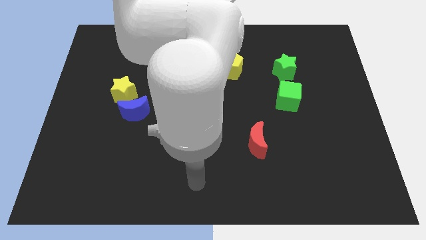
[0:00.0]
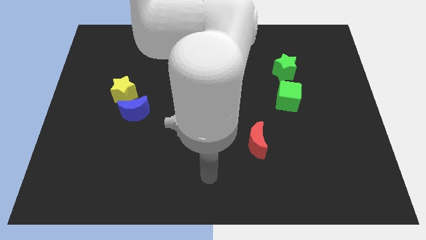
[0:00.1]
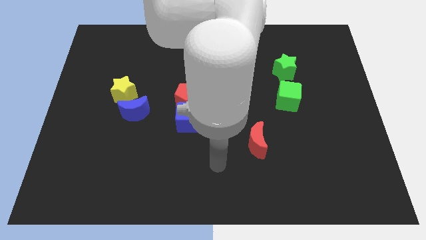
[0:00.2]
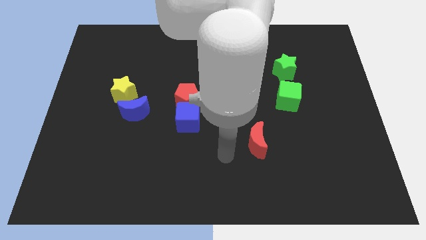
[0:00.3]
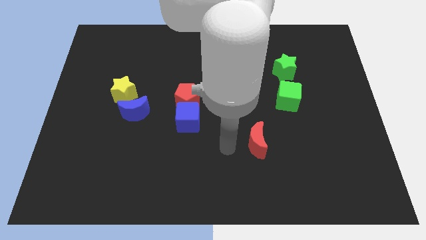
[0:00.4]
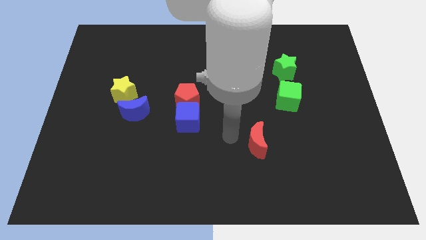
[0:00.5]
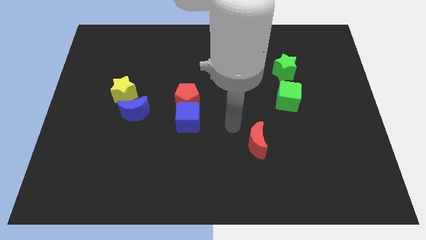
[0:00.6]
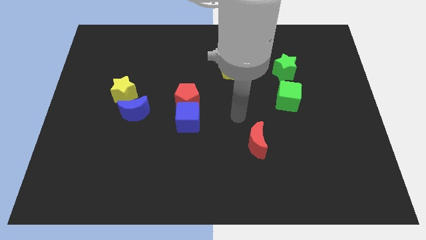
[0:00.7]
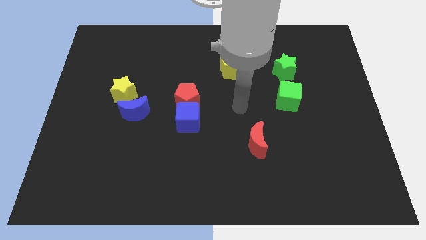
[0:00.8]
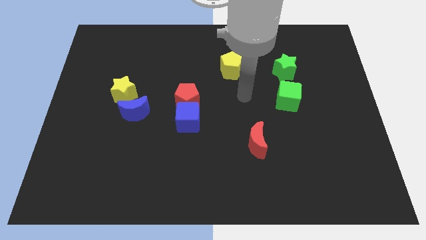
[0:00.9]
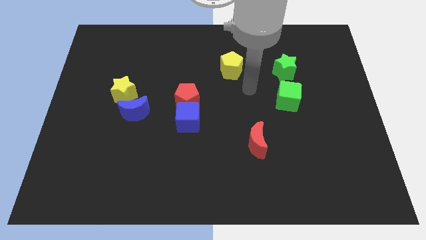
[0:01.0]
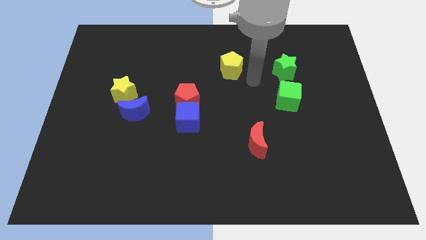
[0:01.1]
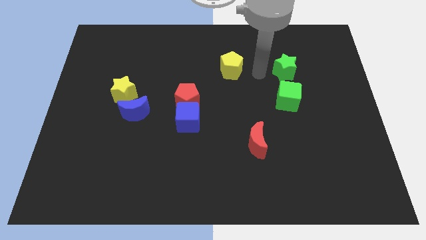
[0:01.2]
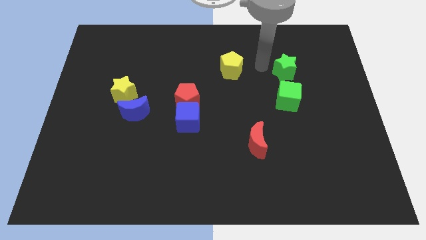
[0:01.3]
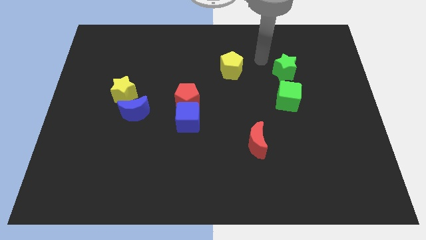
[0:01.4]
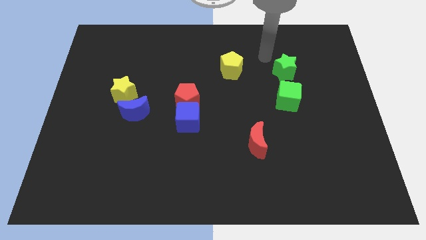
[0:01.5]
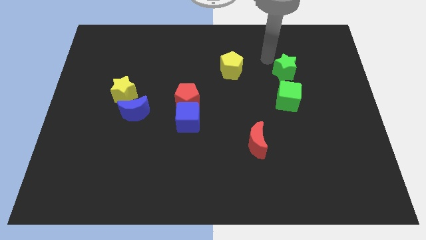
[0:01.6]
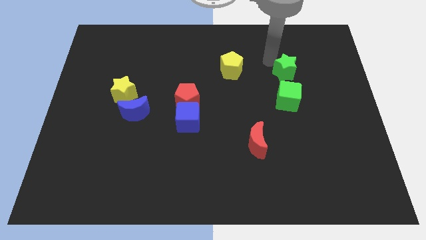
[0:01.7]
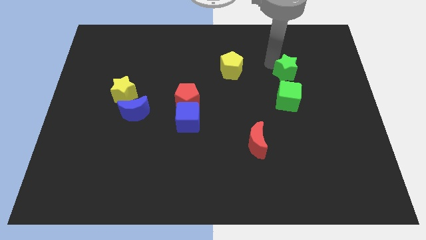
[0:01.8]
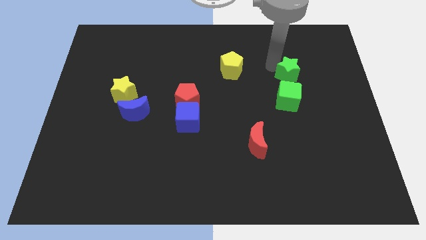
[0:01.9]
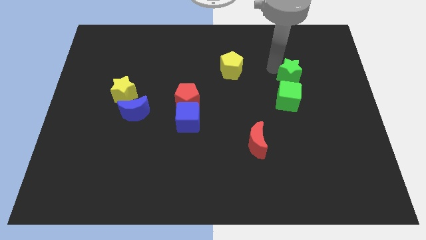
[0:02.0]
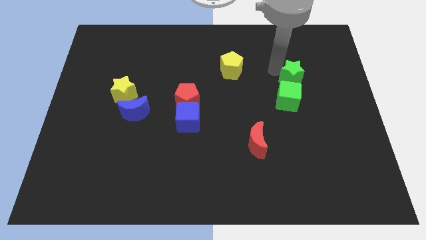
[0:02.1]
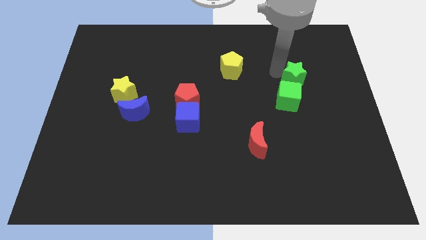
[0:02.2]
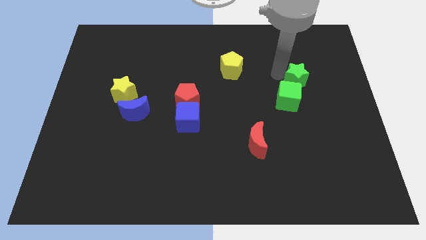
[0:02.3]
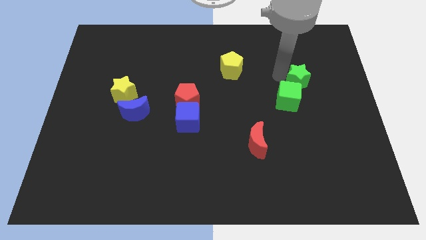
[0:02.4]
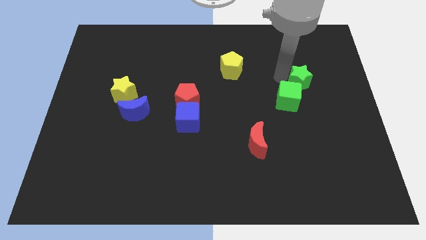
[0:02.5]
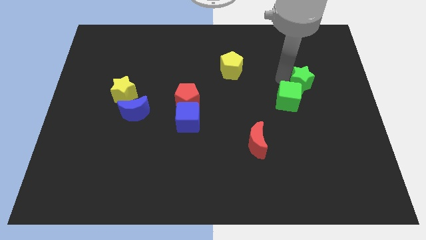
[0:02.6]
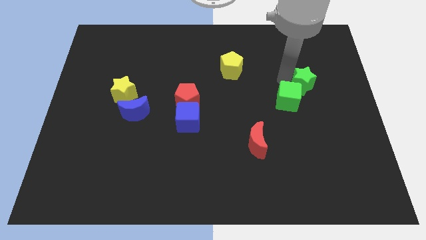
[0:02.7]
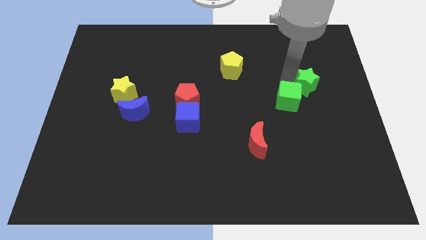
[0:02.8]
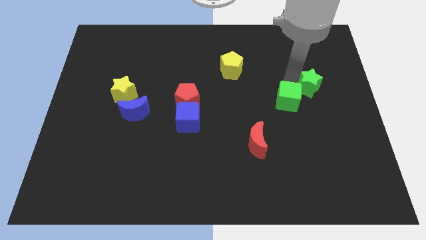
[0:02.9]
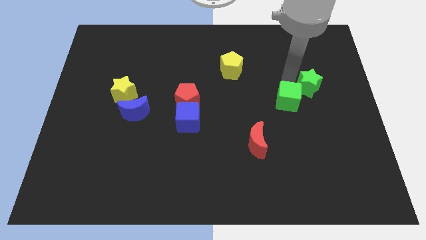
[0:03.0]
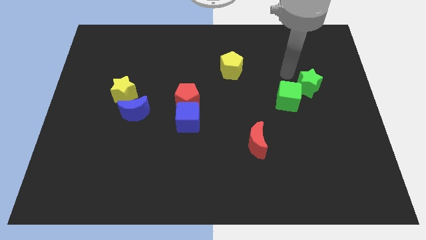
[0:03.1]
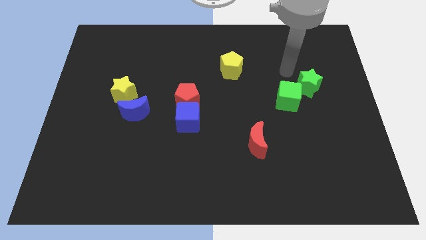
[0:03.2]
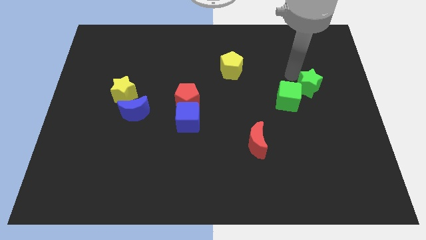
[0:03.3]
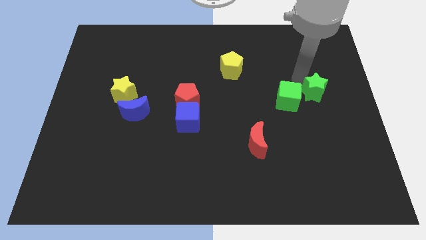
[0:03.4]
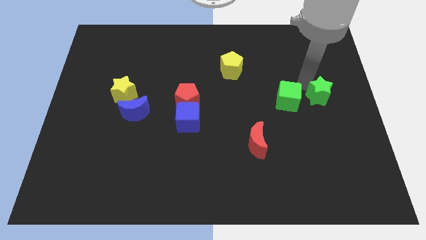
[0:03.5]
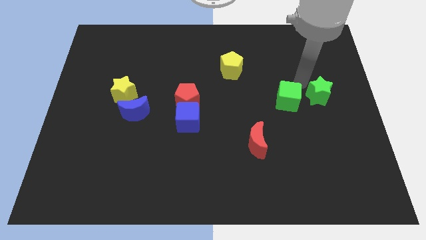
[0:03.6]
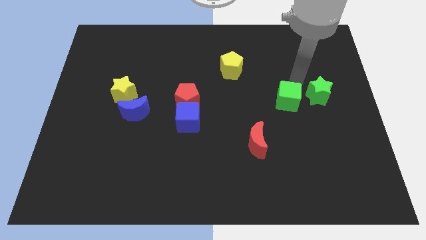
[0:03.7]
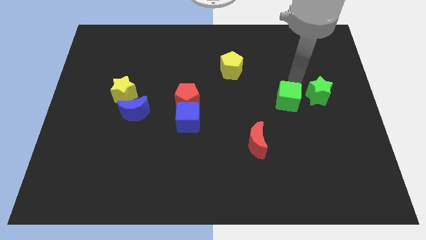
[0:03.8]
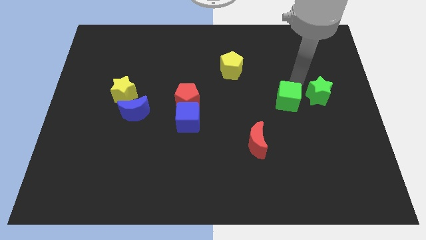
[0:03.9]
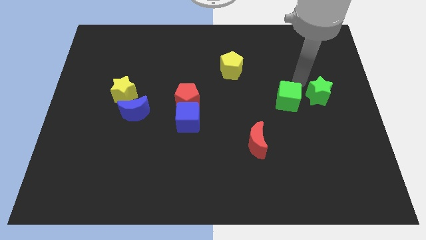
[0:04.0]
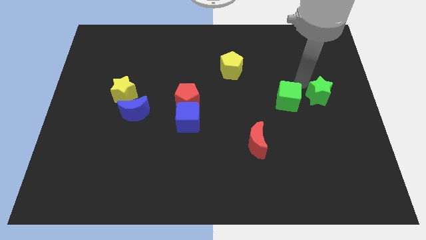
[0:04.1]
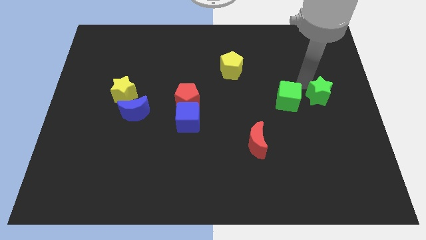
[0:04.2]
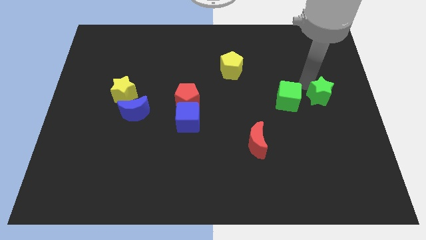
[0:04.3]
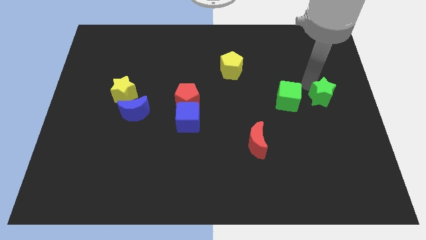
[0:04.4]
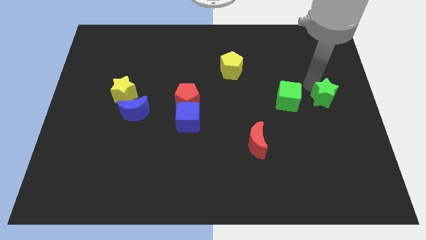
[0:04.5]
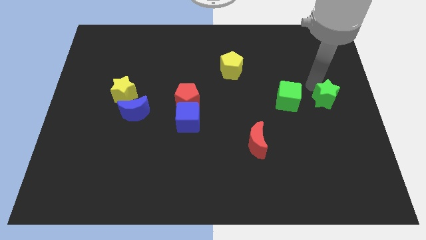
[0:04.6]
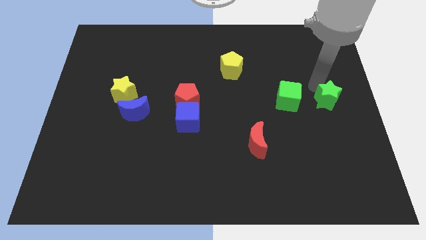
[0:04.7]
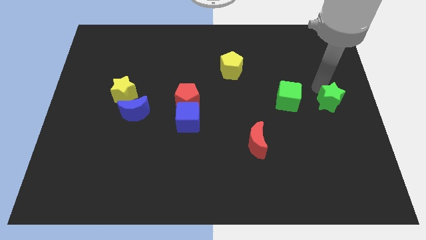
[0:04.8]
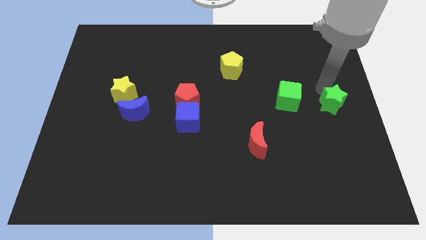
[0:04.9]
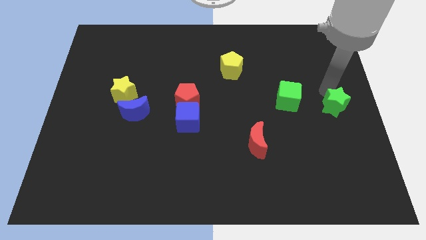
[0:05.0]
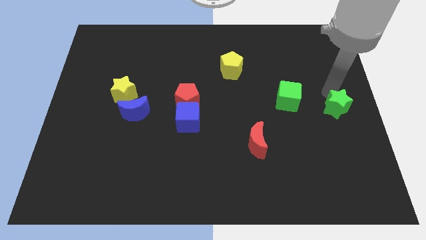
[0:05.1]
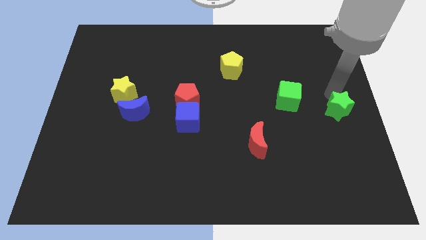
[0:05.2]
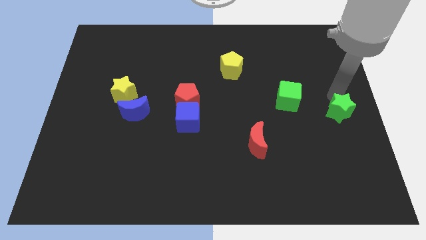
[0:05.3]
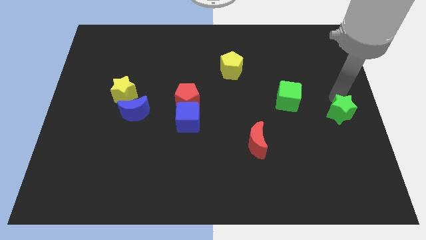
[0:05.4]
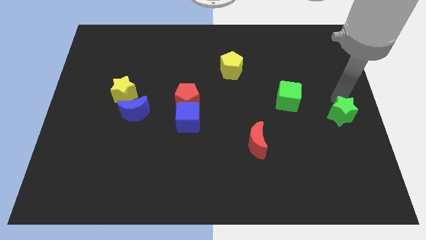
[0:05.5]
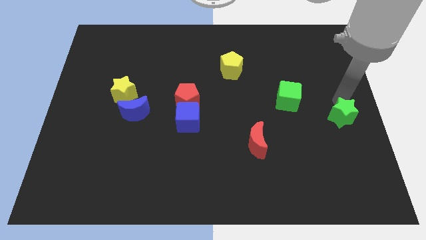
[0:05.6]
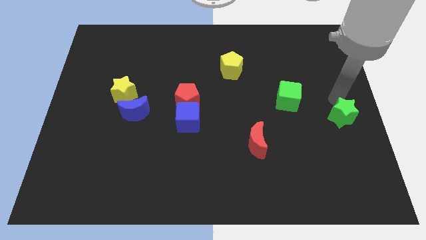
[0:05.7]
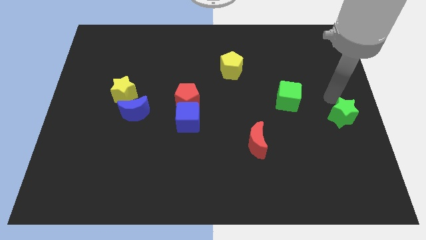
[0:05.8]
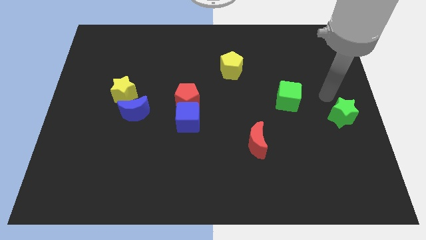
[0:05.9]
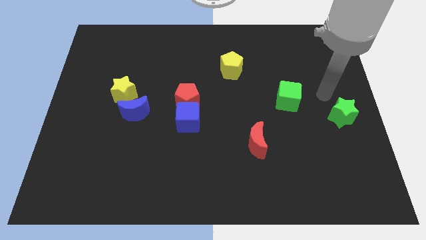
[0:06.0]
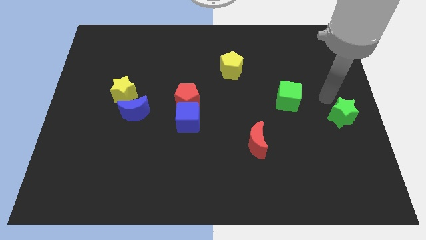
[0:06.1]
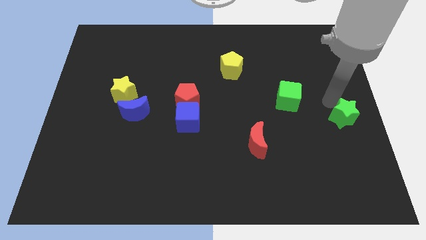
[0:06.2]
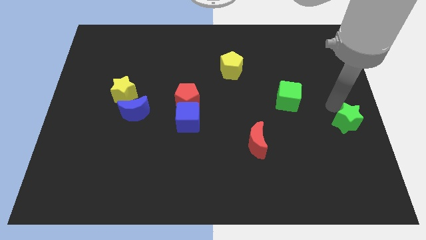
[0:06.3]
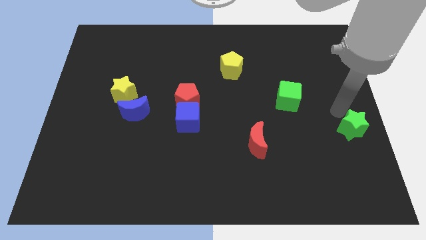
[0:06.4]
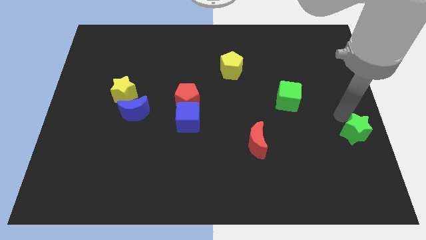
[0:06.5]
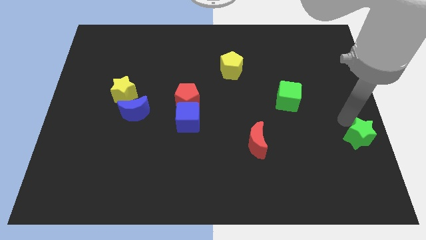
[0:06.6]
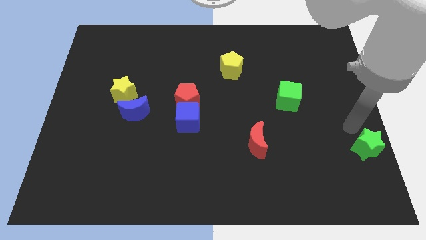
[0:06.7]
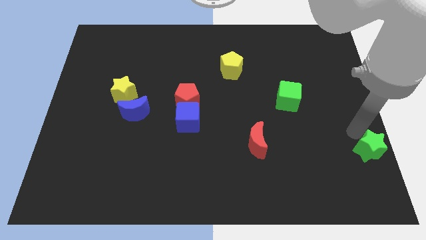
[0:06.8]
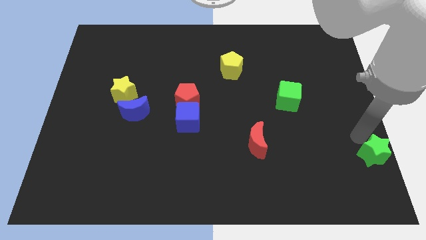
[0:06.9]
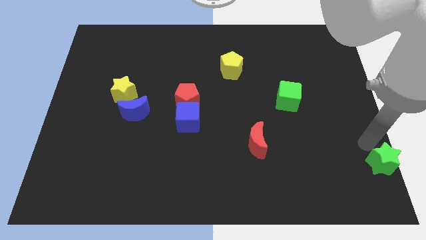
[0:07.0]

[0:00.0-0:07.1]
put the green star to the bottom right
